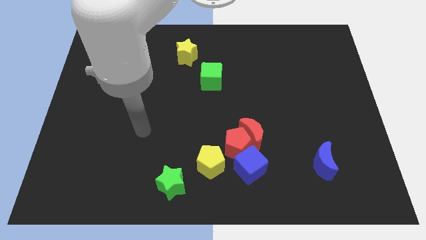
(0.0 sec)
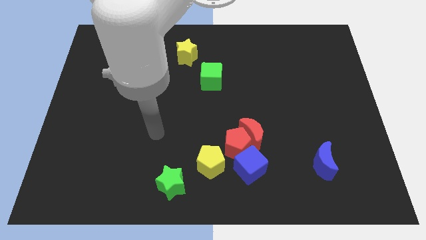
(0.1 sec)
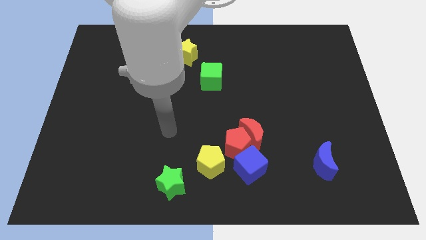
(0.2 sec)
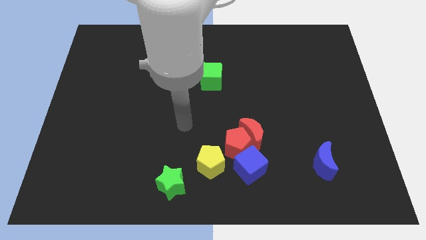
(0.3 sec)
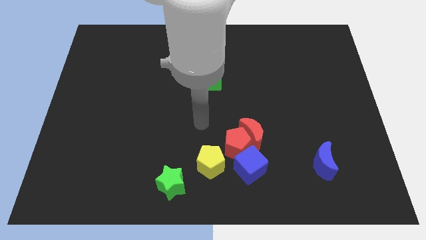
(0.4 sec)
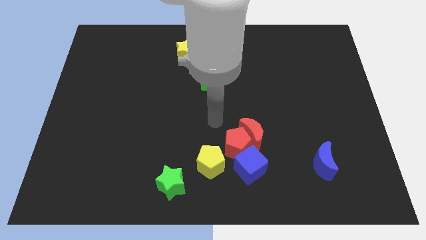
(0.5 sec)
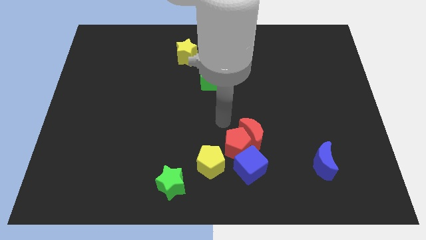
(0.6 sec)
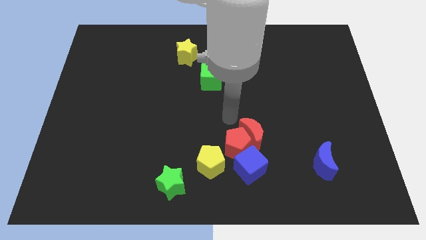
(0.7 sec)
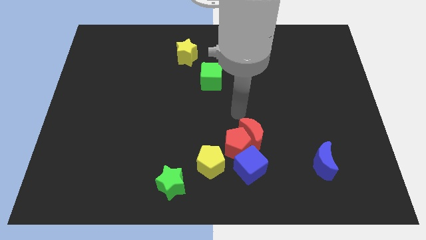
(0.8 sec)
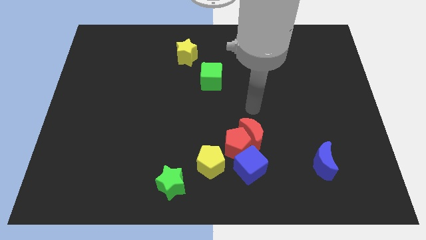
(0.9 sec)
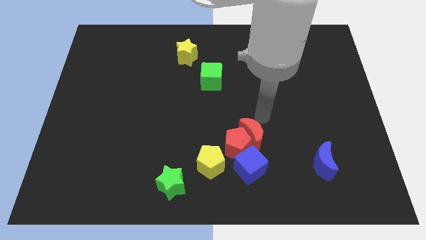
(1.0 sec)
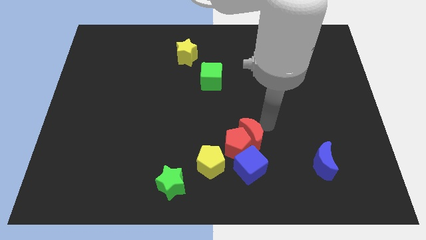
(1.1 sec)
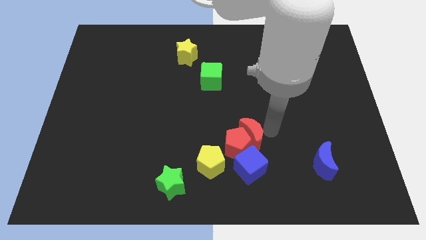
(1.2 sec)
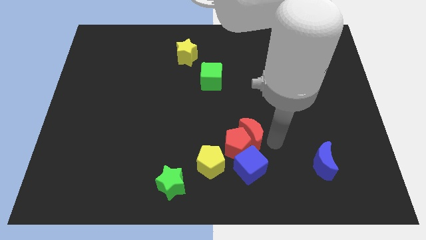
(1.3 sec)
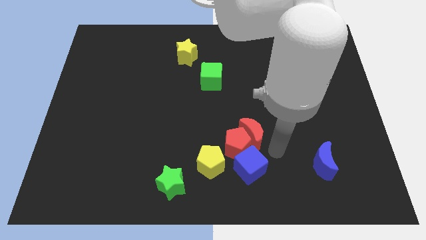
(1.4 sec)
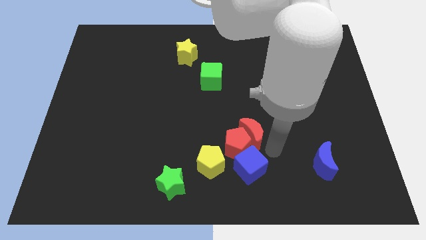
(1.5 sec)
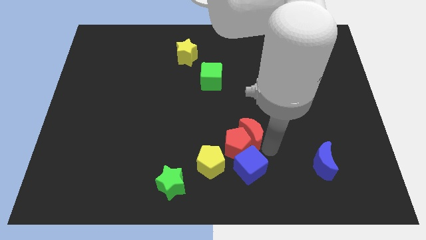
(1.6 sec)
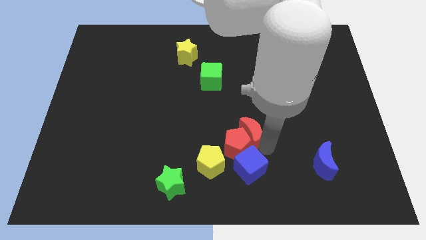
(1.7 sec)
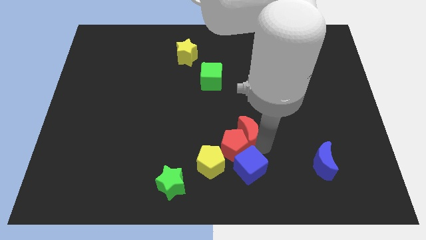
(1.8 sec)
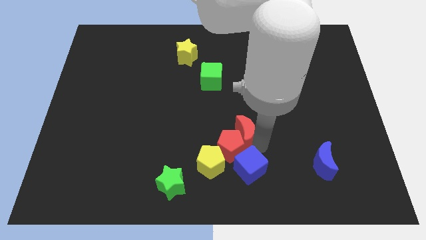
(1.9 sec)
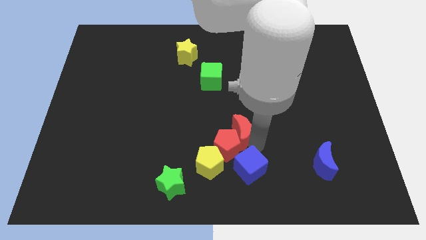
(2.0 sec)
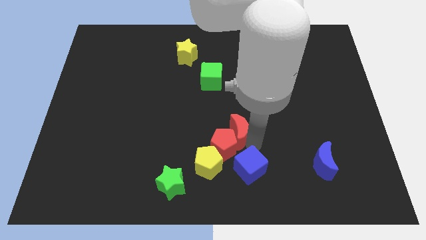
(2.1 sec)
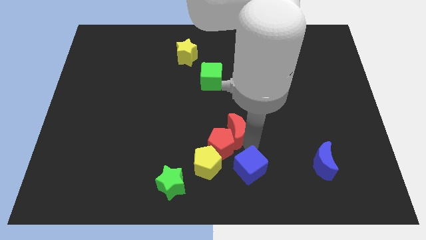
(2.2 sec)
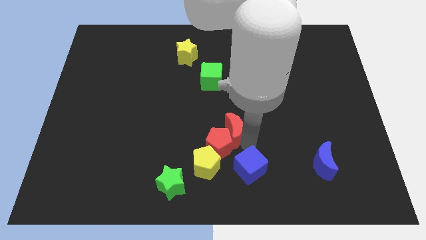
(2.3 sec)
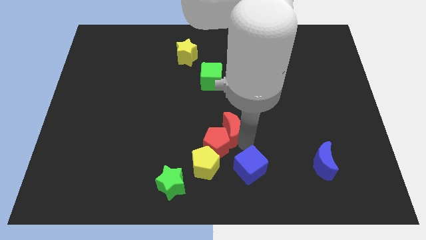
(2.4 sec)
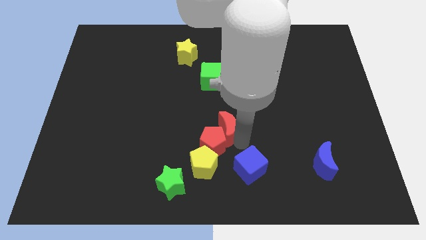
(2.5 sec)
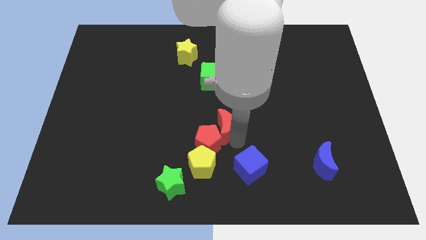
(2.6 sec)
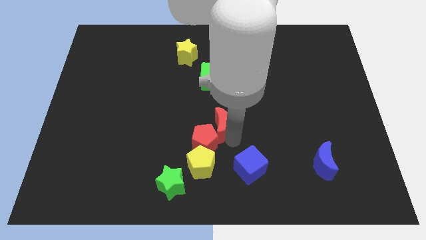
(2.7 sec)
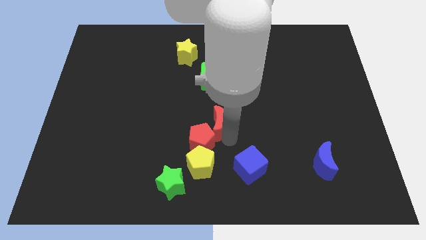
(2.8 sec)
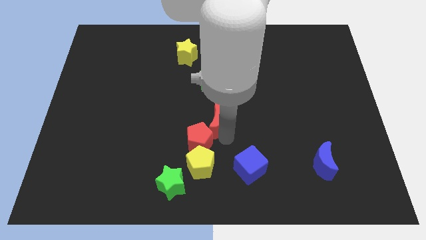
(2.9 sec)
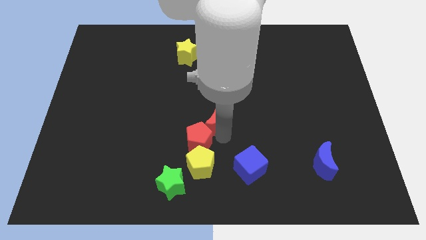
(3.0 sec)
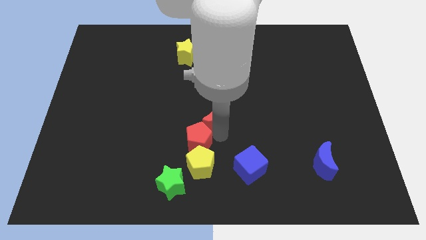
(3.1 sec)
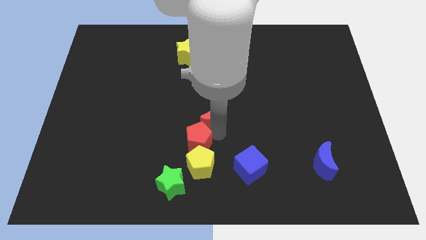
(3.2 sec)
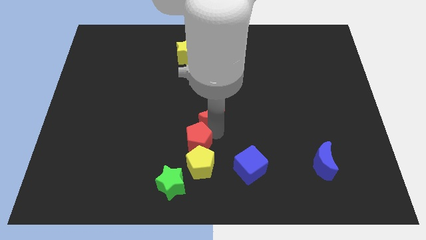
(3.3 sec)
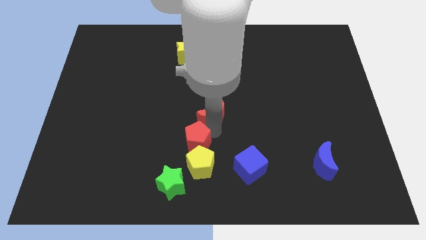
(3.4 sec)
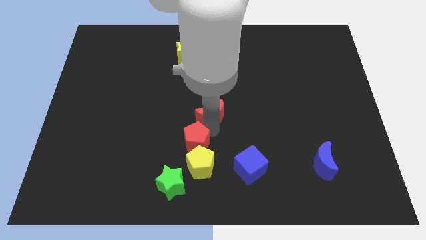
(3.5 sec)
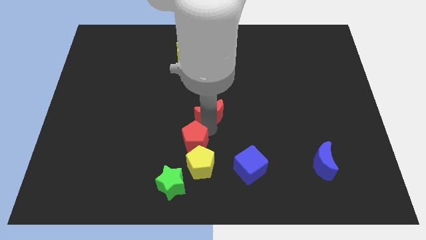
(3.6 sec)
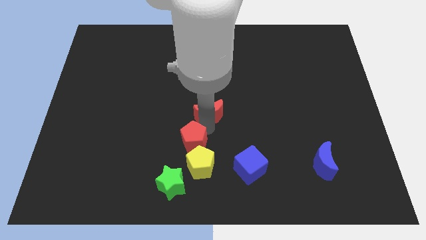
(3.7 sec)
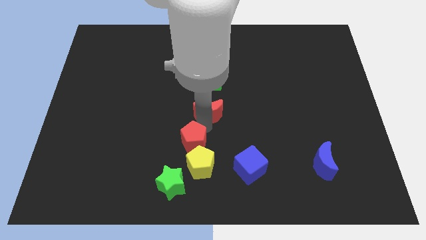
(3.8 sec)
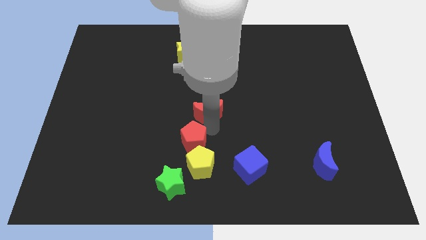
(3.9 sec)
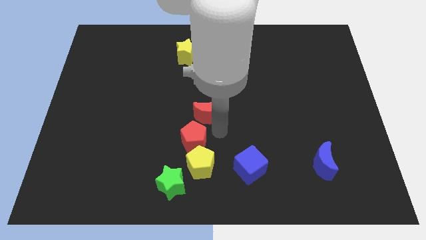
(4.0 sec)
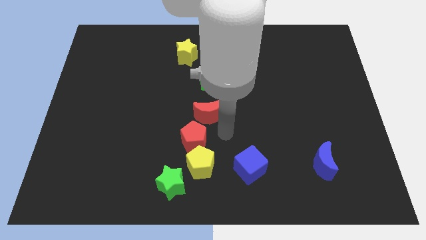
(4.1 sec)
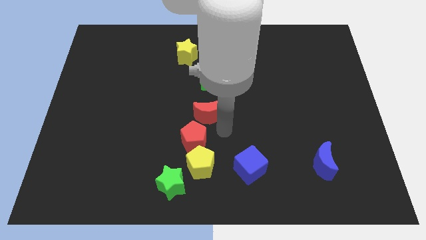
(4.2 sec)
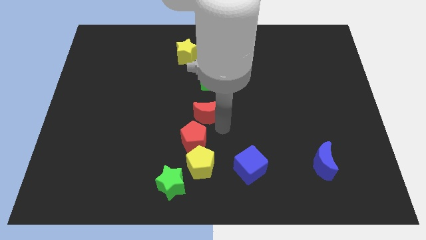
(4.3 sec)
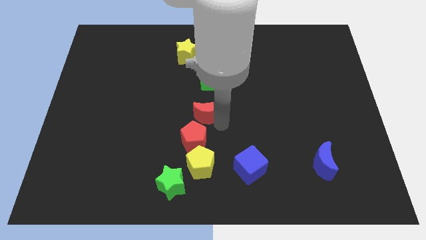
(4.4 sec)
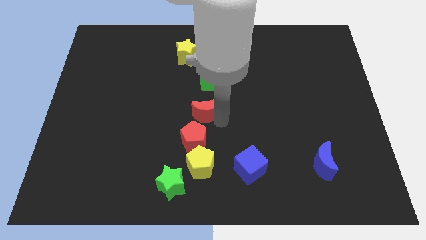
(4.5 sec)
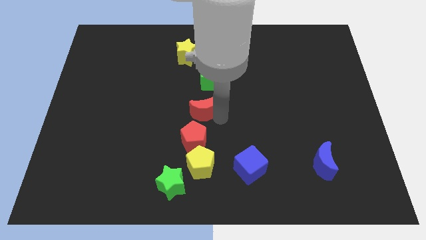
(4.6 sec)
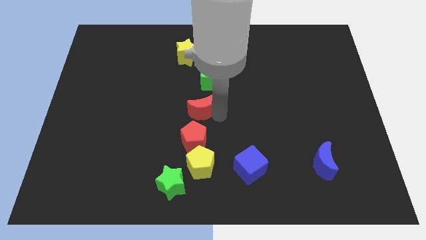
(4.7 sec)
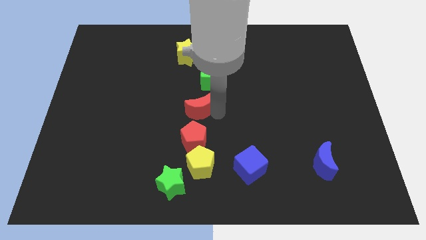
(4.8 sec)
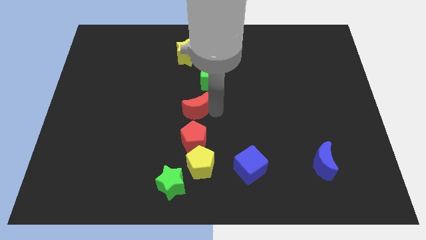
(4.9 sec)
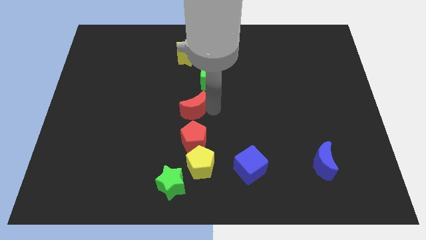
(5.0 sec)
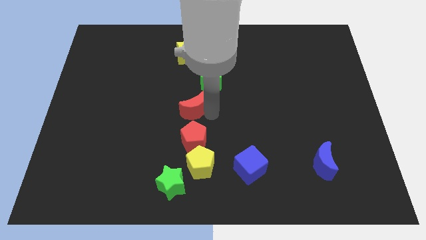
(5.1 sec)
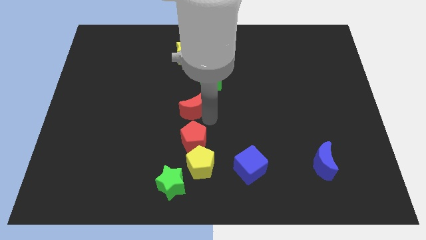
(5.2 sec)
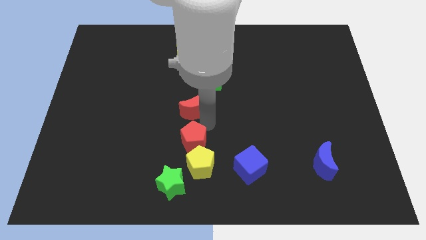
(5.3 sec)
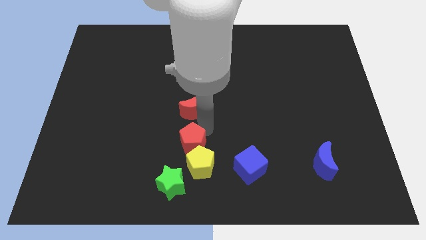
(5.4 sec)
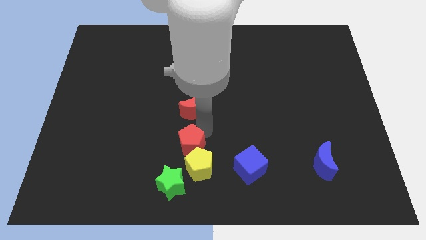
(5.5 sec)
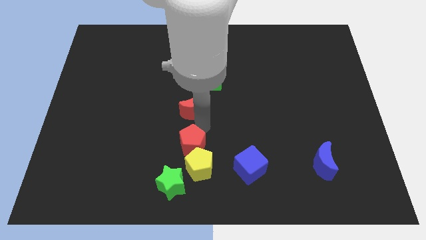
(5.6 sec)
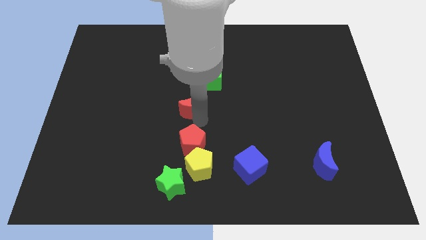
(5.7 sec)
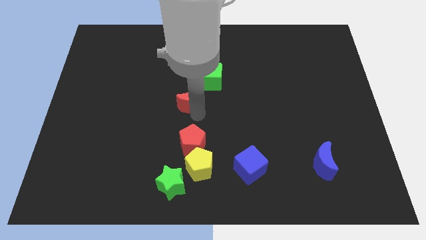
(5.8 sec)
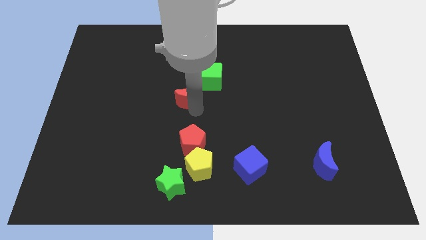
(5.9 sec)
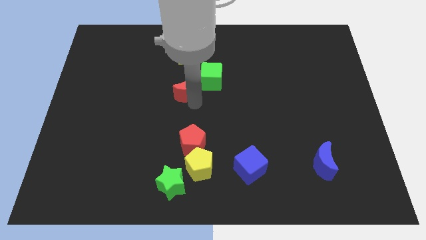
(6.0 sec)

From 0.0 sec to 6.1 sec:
move the red moon left of the green cube

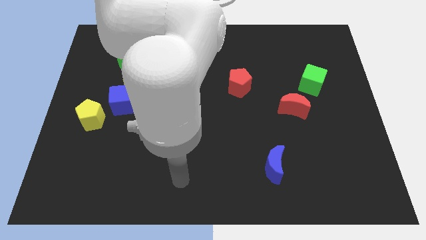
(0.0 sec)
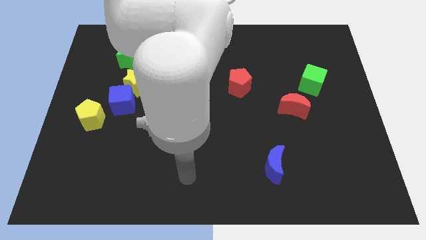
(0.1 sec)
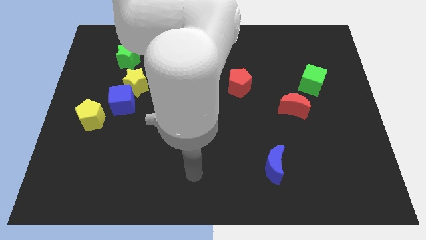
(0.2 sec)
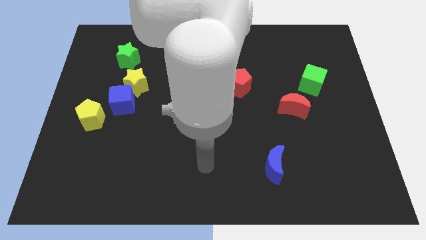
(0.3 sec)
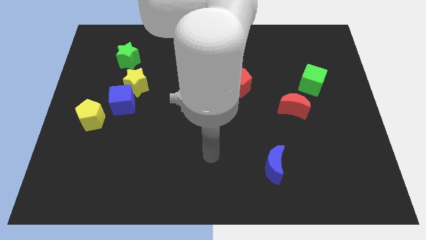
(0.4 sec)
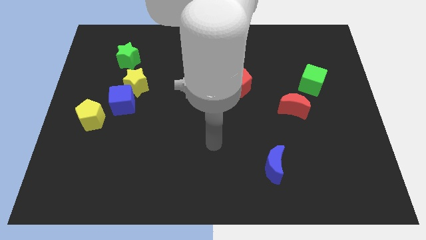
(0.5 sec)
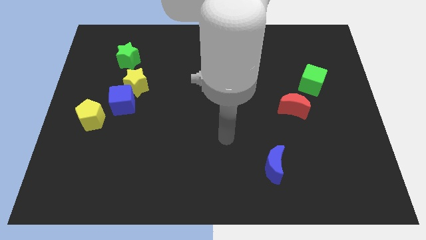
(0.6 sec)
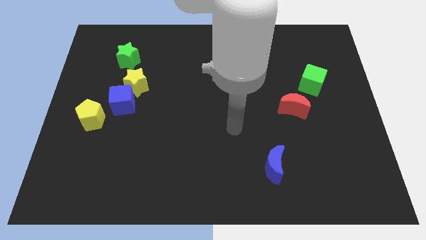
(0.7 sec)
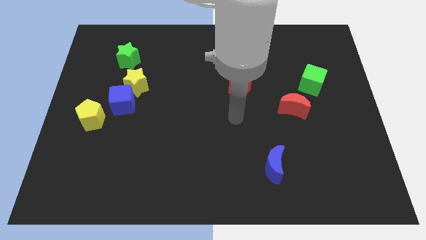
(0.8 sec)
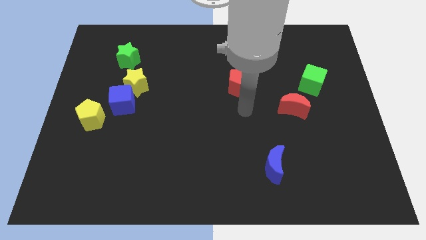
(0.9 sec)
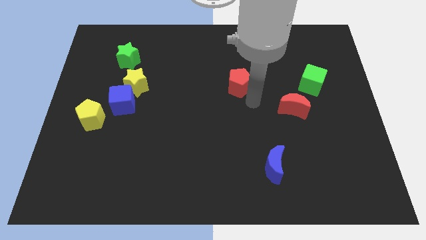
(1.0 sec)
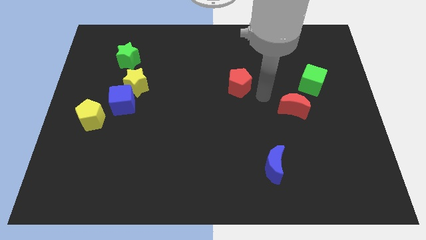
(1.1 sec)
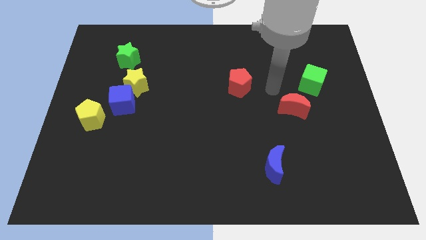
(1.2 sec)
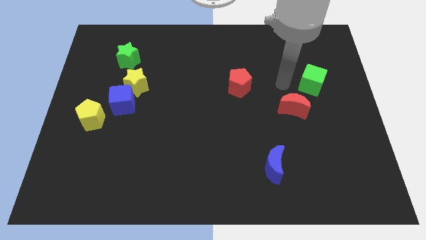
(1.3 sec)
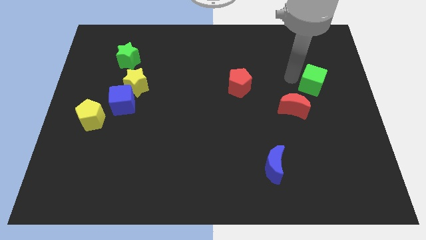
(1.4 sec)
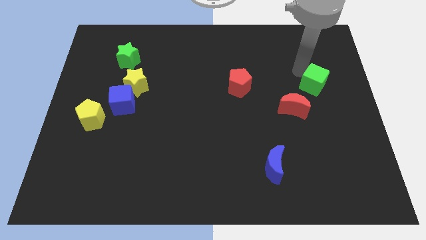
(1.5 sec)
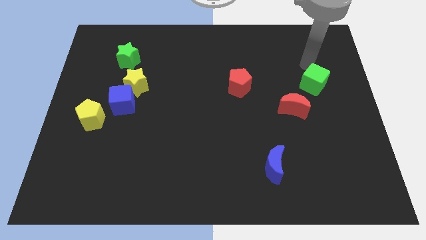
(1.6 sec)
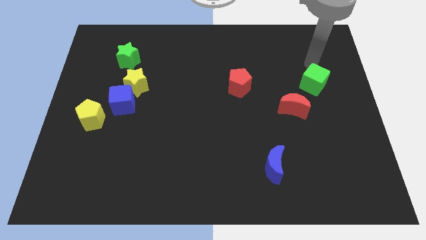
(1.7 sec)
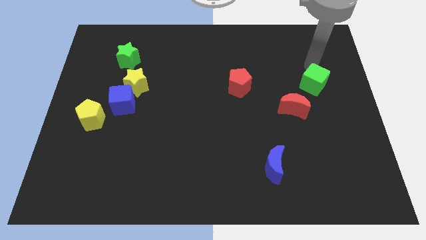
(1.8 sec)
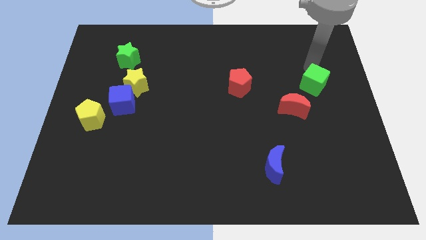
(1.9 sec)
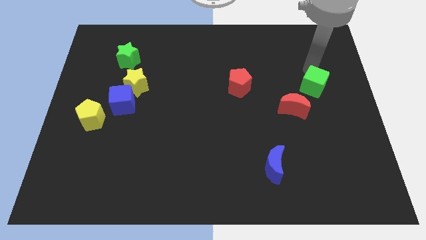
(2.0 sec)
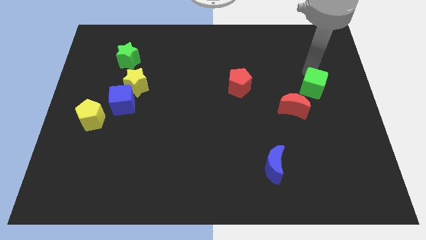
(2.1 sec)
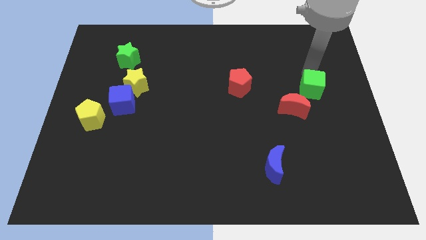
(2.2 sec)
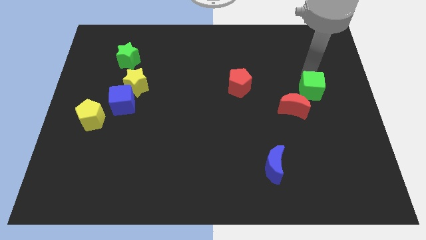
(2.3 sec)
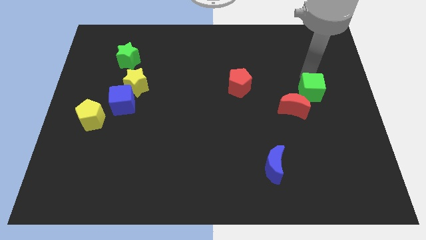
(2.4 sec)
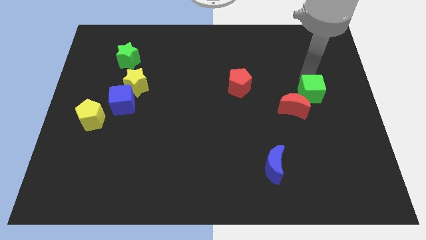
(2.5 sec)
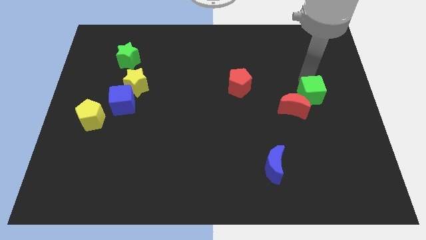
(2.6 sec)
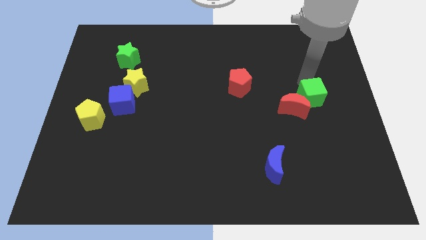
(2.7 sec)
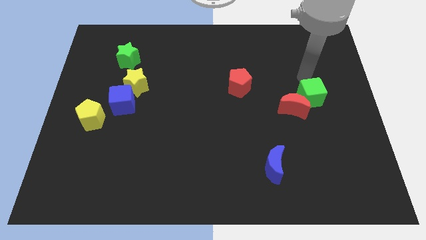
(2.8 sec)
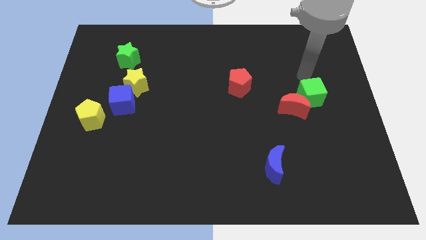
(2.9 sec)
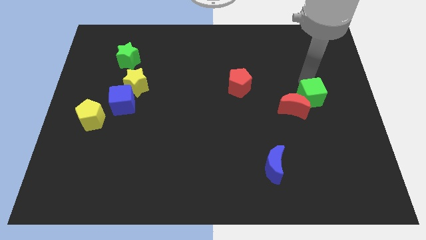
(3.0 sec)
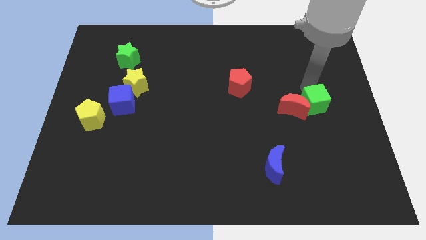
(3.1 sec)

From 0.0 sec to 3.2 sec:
put the green cube to the bottom right side of the red moon
